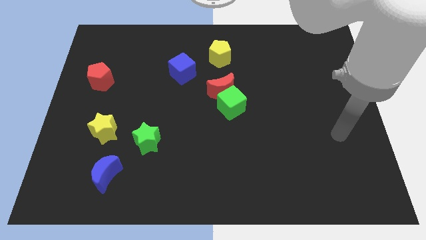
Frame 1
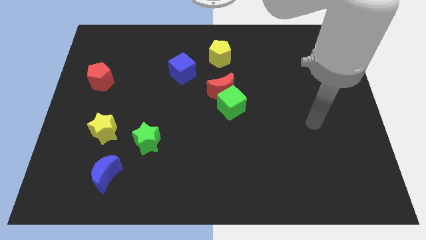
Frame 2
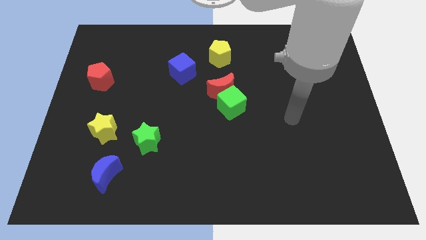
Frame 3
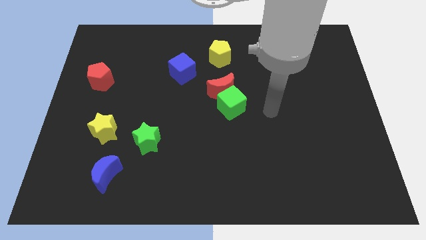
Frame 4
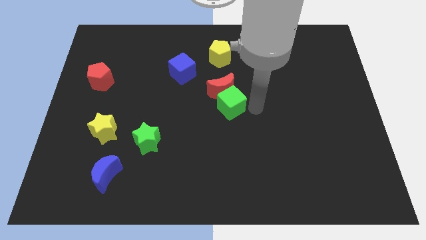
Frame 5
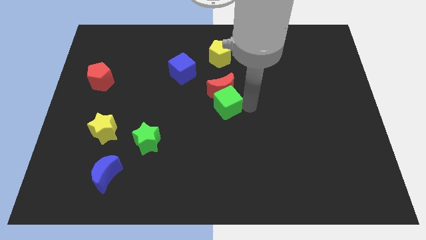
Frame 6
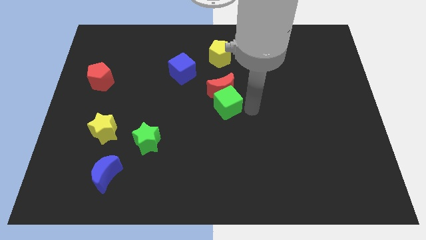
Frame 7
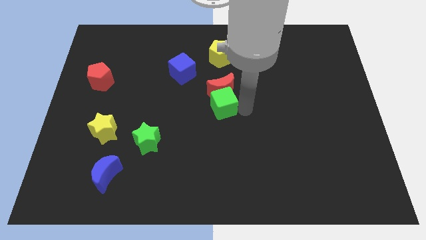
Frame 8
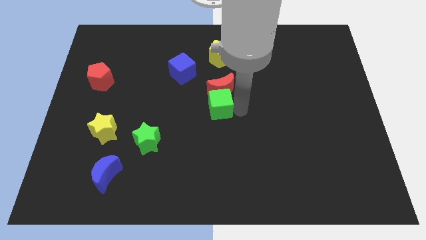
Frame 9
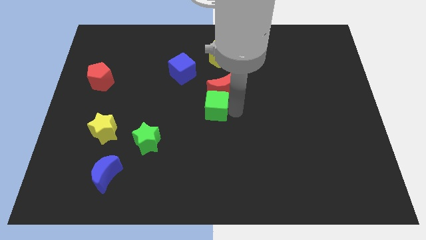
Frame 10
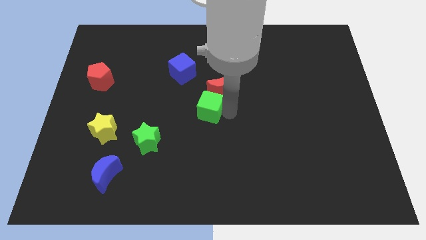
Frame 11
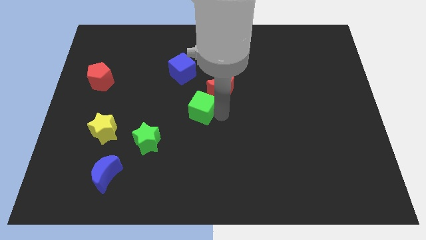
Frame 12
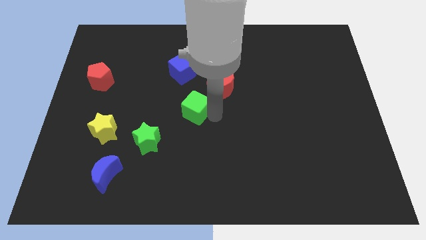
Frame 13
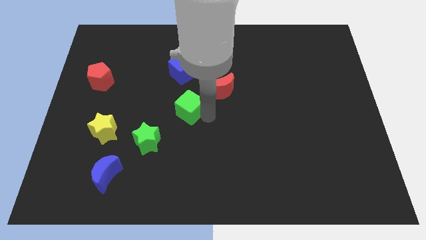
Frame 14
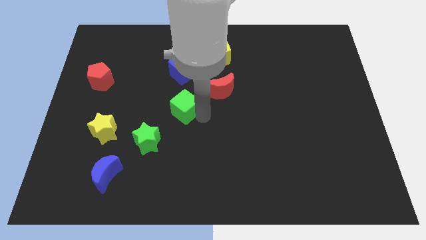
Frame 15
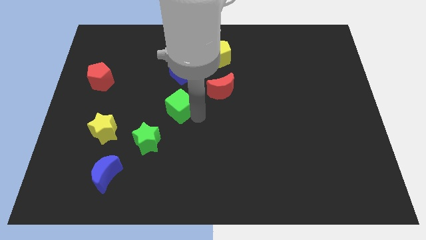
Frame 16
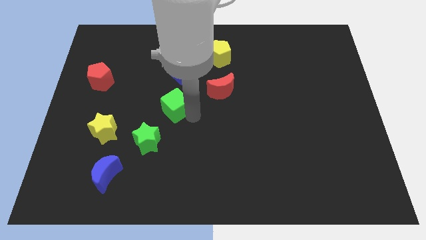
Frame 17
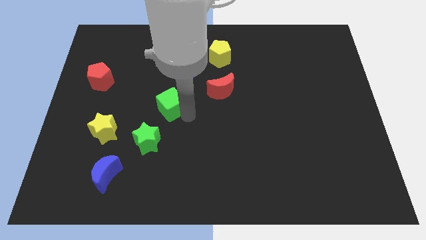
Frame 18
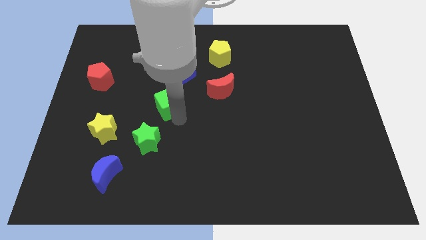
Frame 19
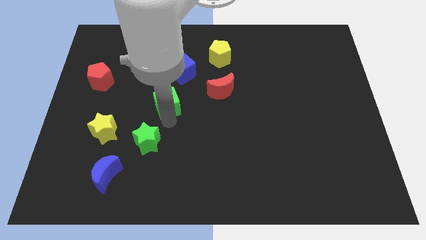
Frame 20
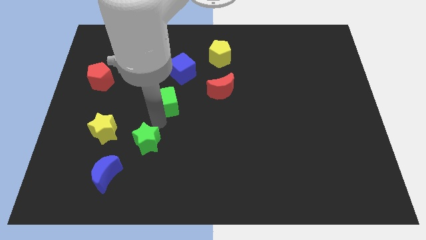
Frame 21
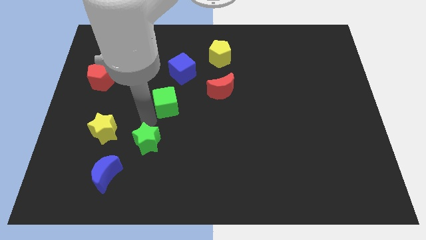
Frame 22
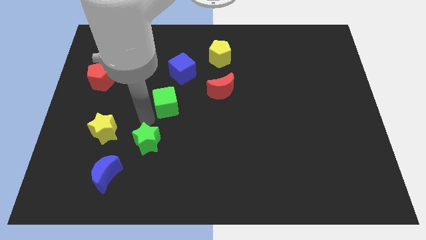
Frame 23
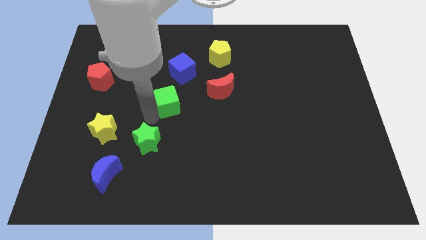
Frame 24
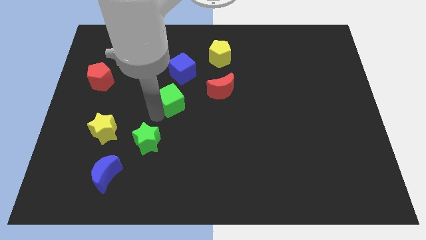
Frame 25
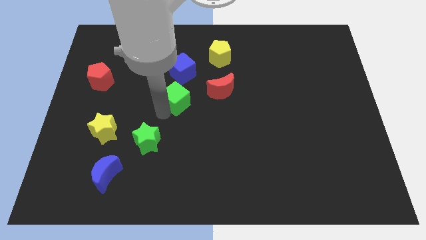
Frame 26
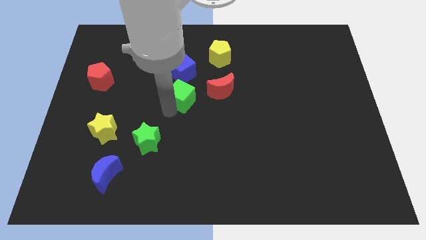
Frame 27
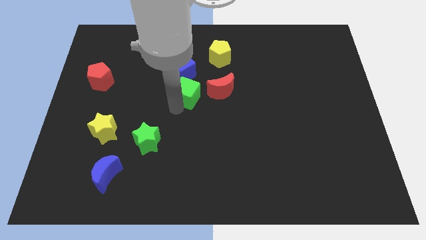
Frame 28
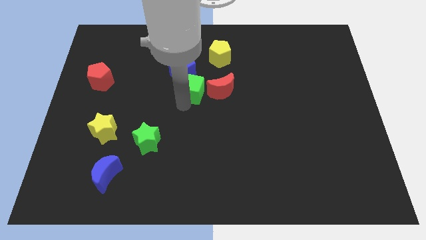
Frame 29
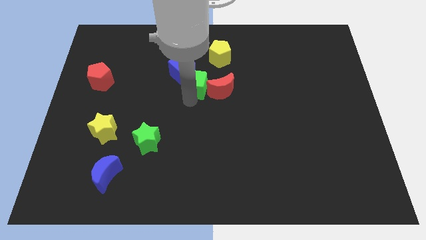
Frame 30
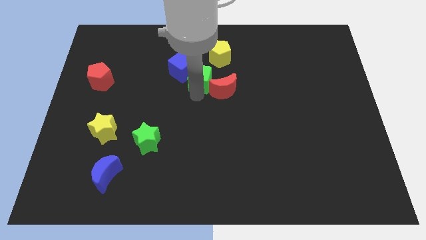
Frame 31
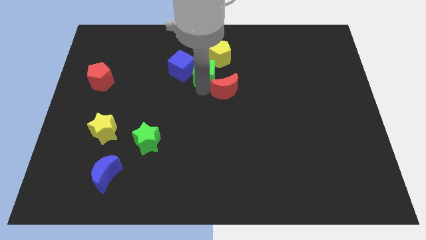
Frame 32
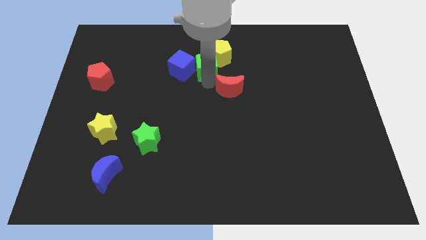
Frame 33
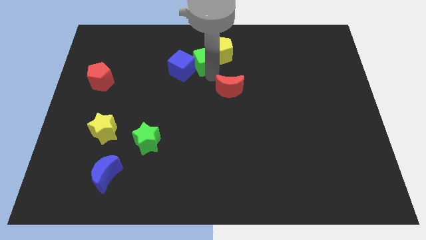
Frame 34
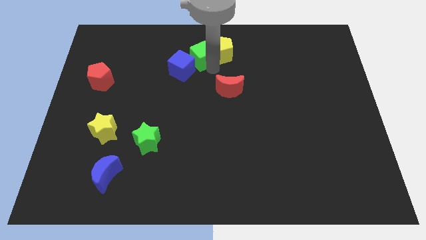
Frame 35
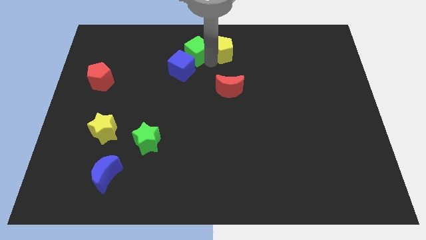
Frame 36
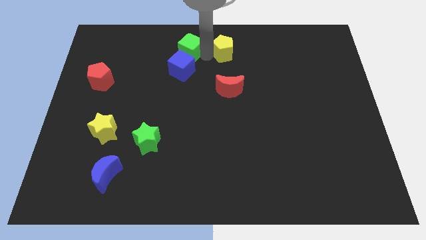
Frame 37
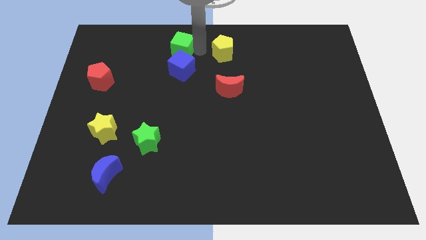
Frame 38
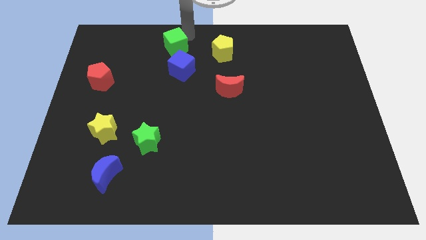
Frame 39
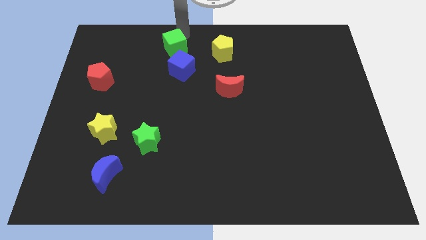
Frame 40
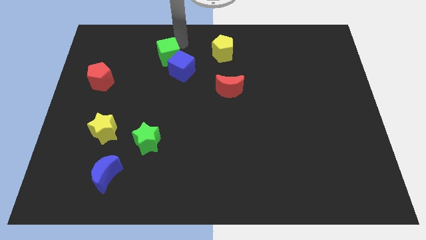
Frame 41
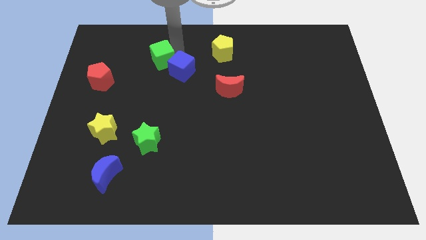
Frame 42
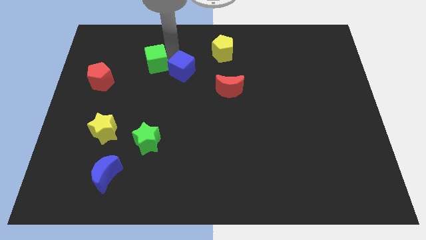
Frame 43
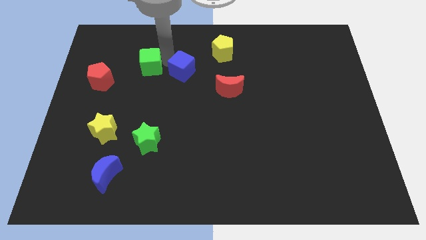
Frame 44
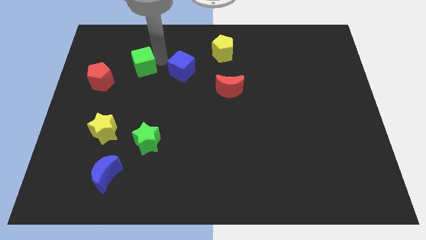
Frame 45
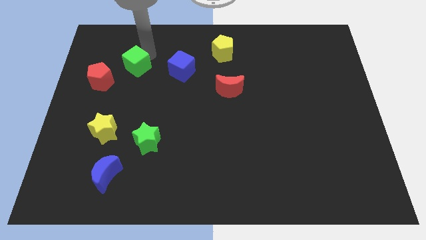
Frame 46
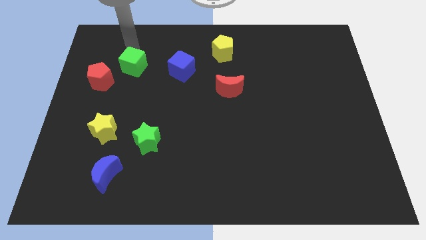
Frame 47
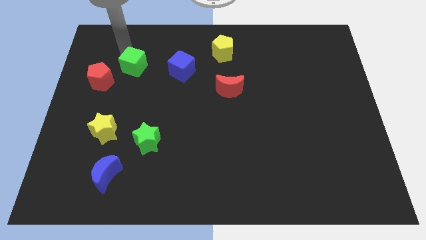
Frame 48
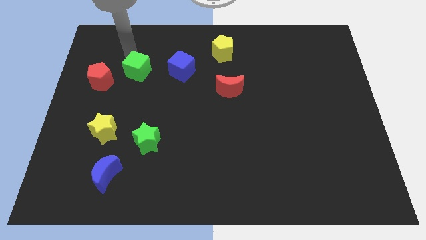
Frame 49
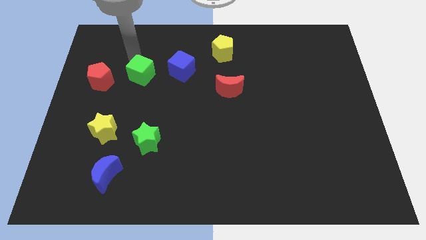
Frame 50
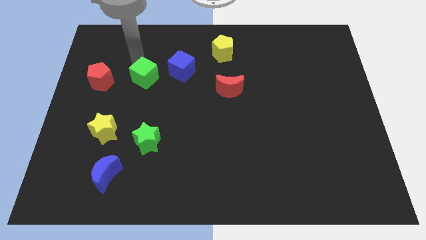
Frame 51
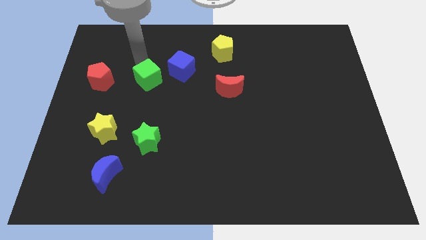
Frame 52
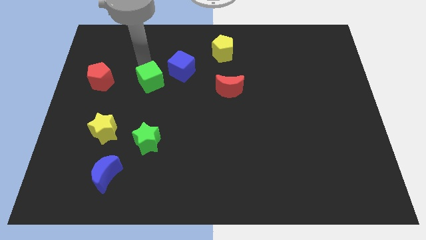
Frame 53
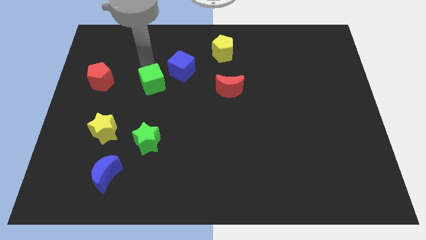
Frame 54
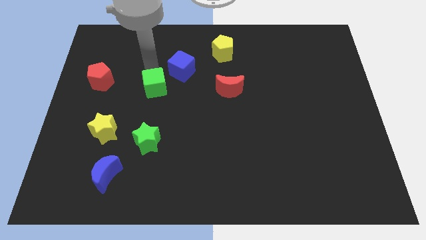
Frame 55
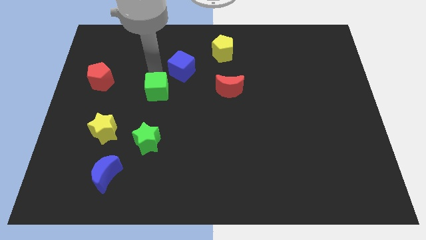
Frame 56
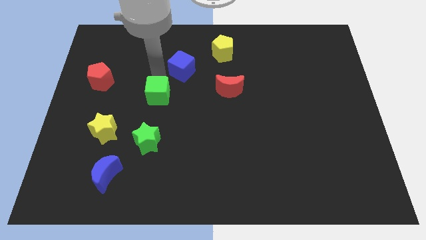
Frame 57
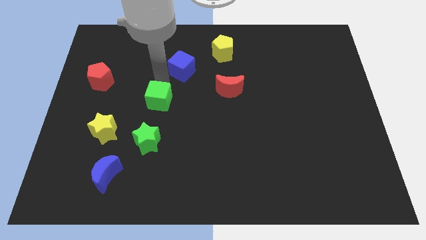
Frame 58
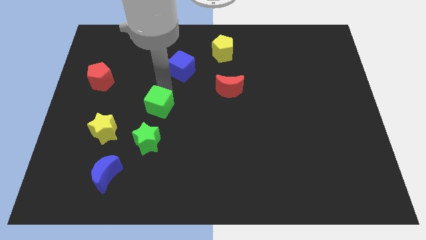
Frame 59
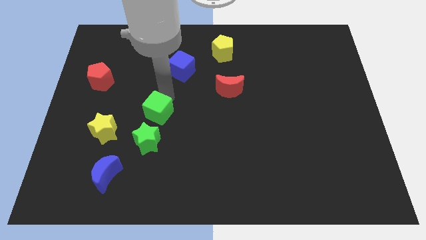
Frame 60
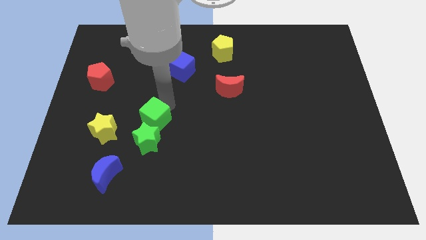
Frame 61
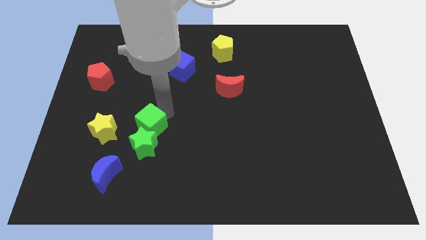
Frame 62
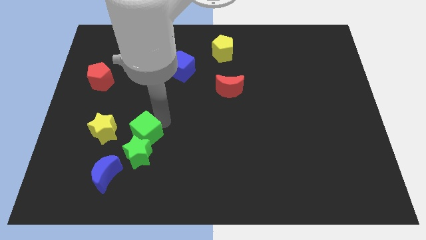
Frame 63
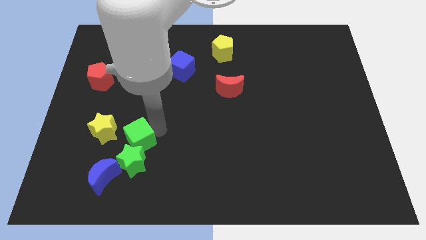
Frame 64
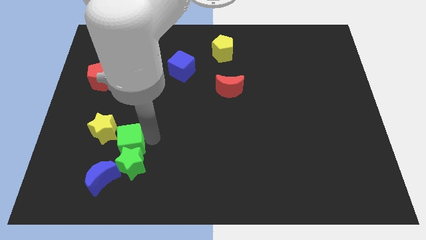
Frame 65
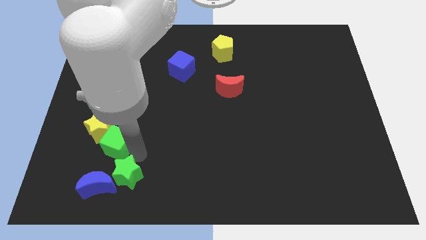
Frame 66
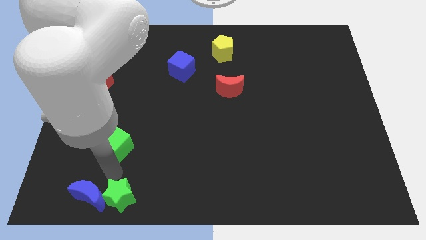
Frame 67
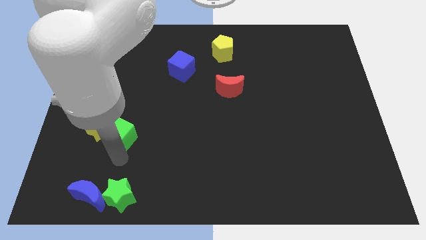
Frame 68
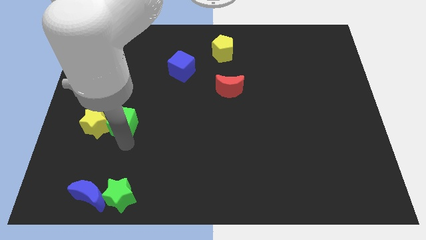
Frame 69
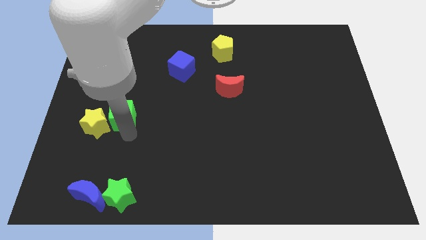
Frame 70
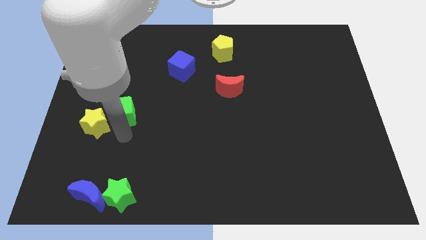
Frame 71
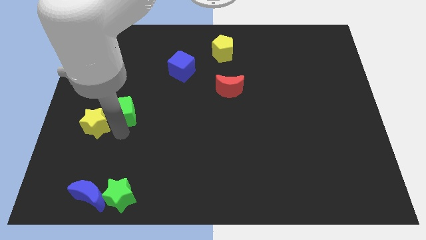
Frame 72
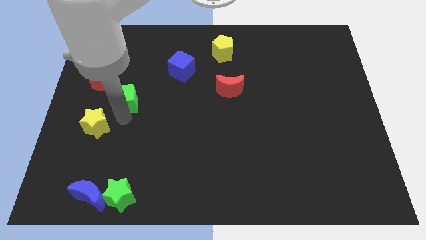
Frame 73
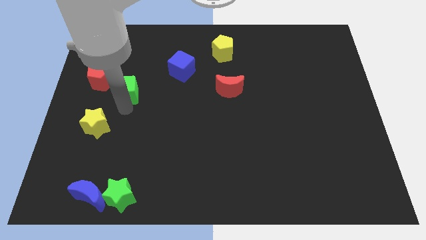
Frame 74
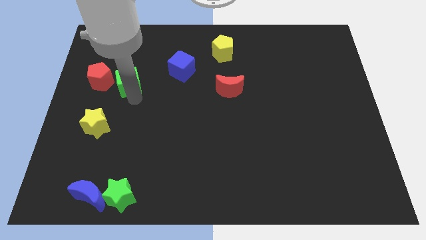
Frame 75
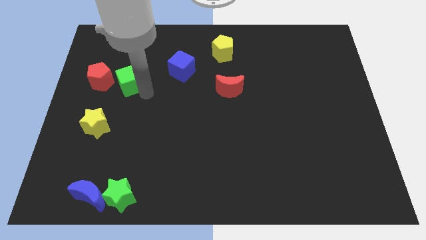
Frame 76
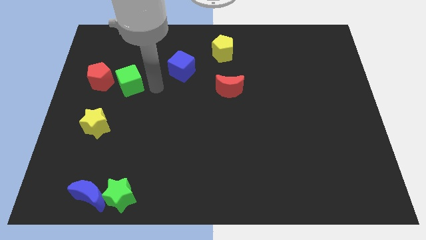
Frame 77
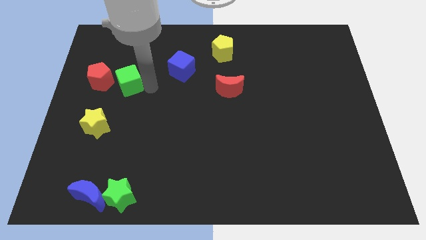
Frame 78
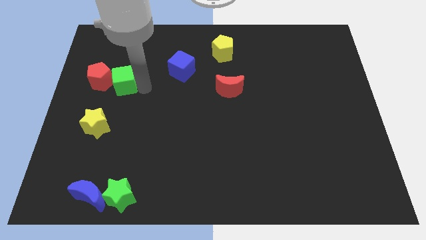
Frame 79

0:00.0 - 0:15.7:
push the green cube close to the red pentagon
